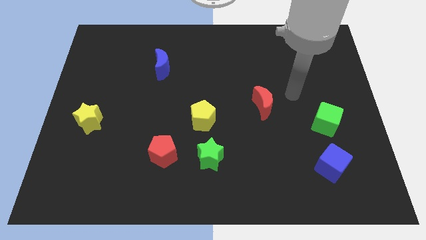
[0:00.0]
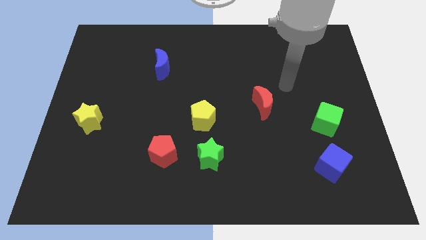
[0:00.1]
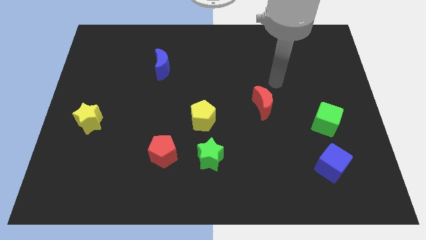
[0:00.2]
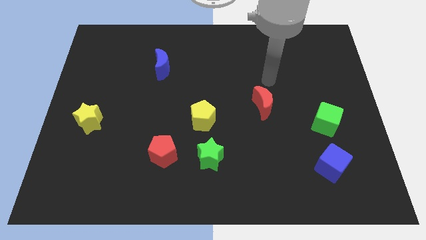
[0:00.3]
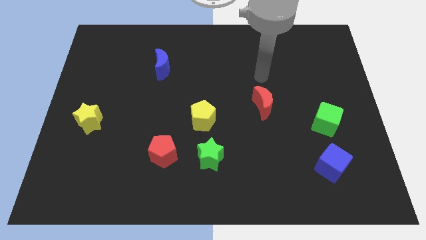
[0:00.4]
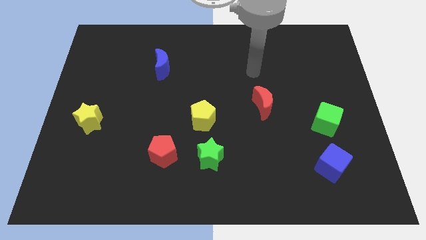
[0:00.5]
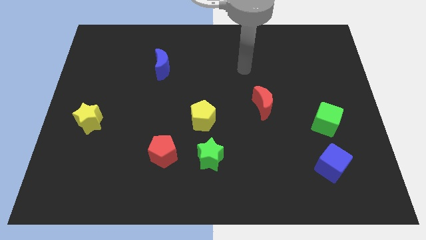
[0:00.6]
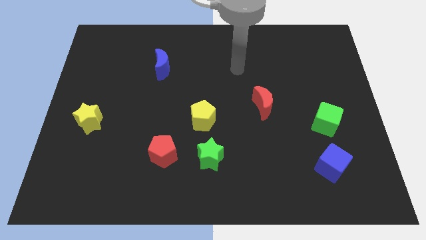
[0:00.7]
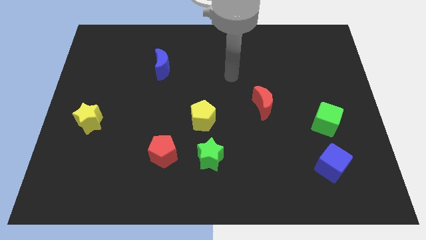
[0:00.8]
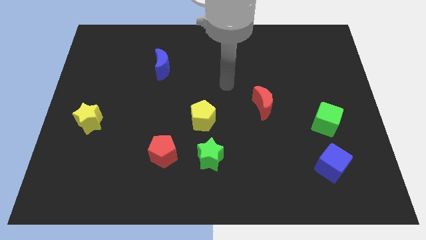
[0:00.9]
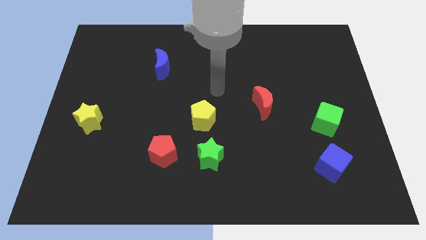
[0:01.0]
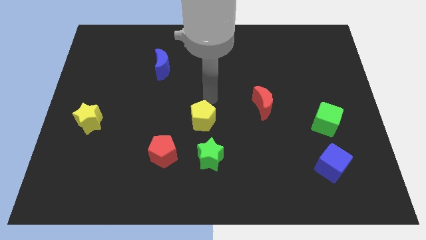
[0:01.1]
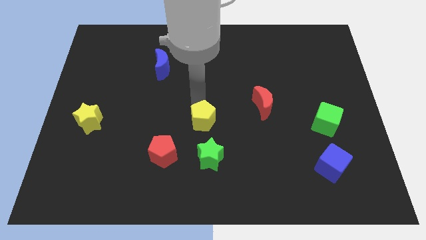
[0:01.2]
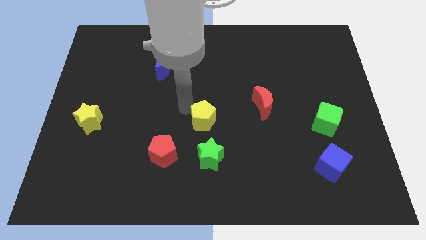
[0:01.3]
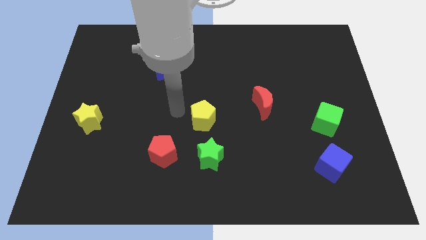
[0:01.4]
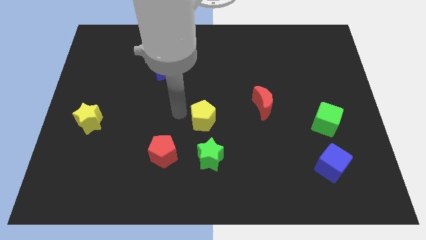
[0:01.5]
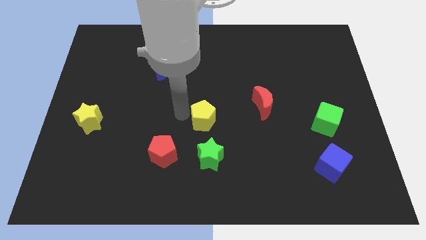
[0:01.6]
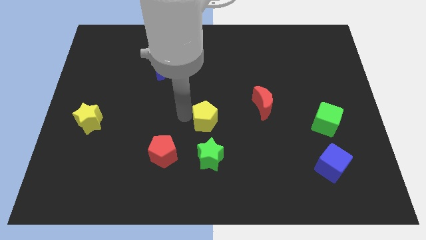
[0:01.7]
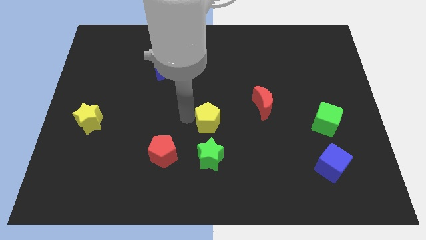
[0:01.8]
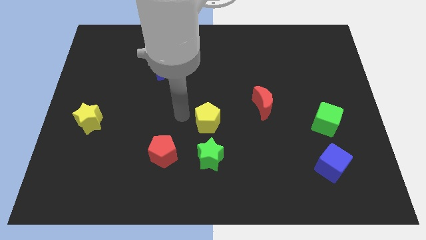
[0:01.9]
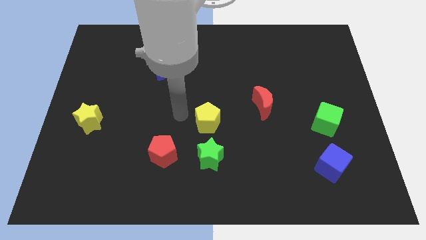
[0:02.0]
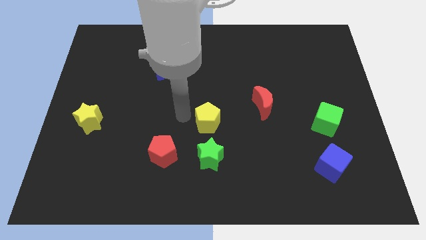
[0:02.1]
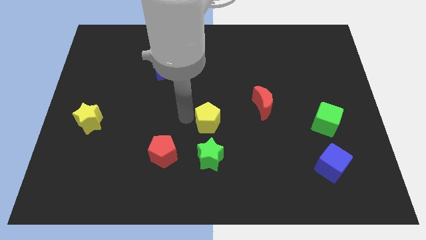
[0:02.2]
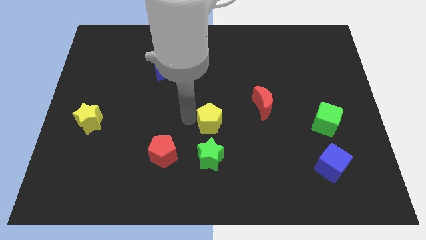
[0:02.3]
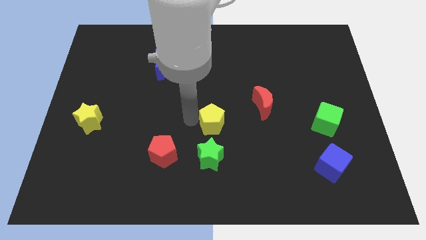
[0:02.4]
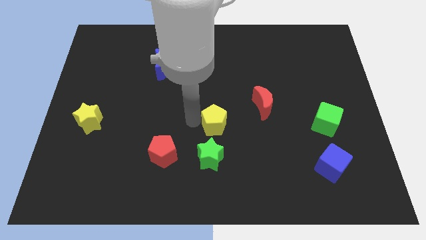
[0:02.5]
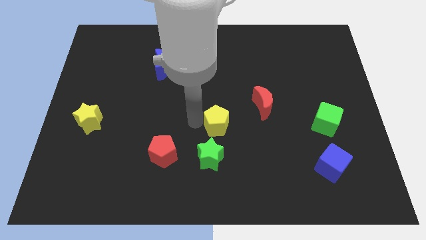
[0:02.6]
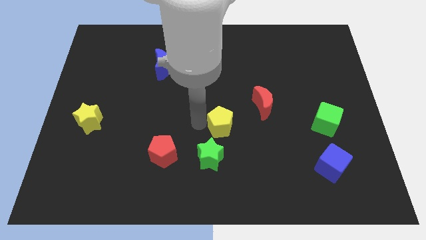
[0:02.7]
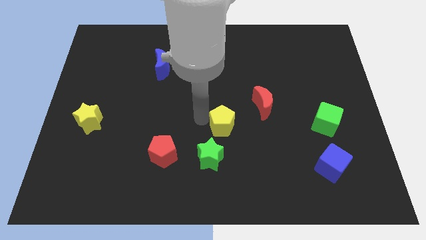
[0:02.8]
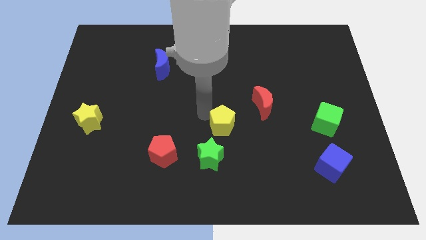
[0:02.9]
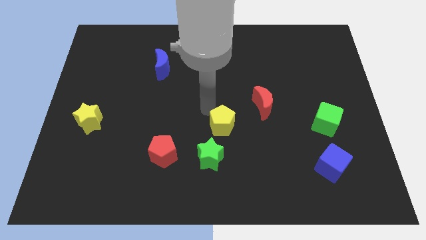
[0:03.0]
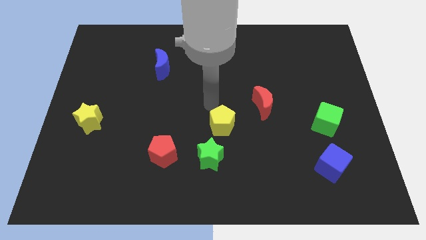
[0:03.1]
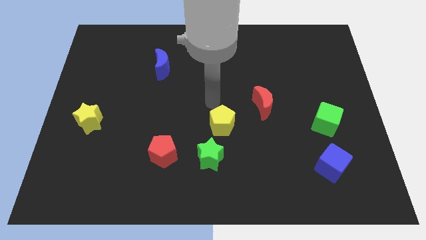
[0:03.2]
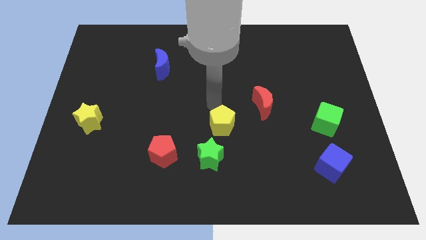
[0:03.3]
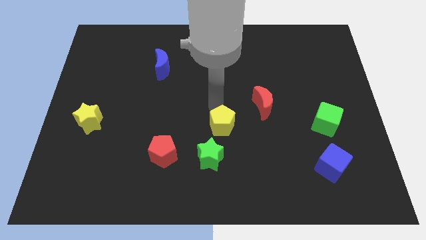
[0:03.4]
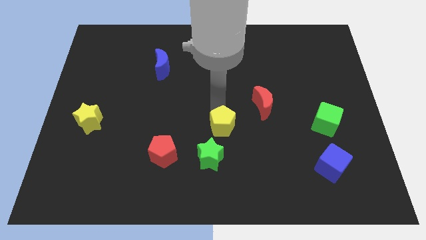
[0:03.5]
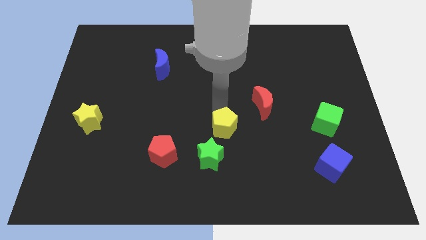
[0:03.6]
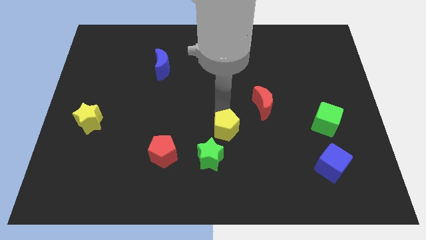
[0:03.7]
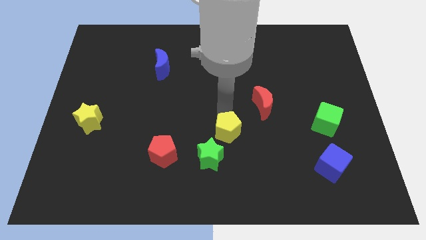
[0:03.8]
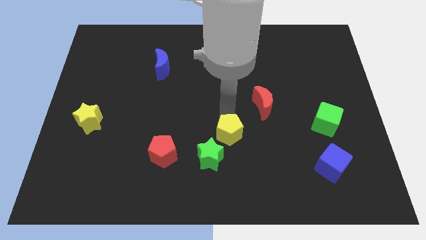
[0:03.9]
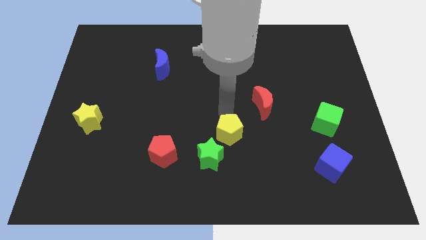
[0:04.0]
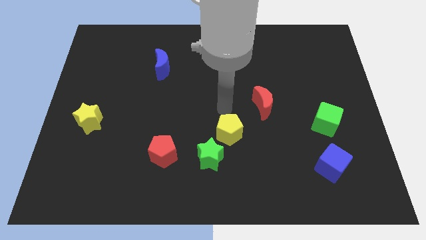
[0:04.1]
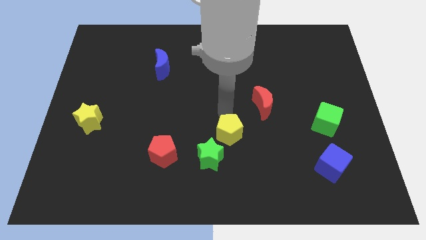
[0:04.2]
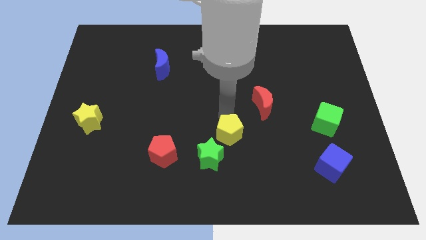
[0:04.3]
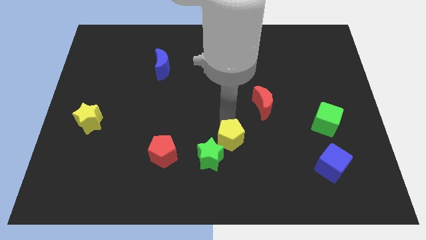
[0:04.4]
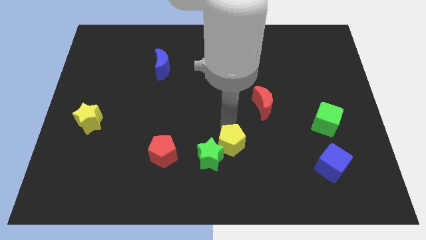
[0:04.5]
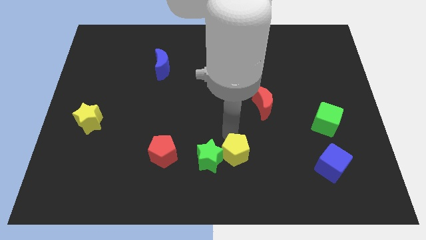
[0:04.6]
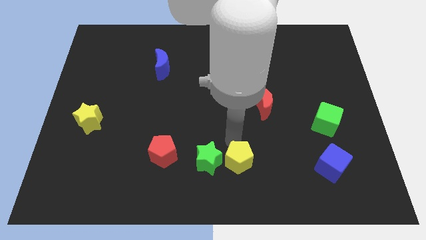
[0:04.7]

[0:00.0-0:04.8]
slide the yellow pentagon to the bottom right of the green star

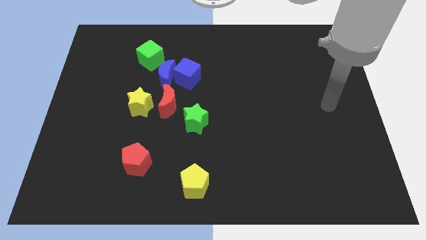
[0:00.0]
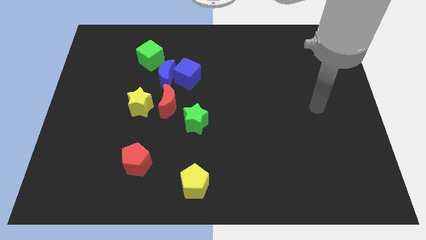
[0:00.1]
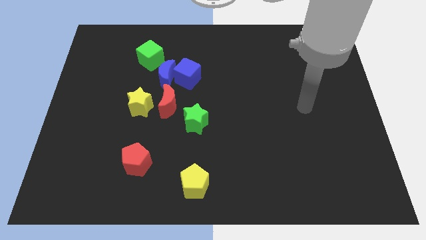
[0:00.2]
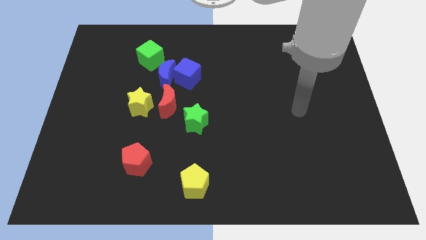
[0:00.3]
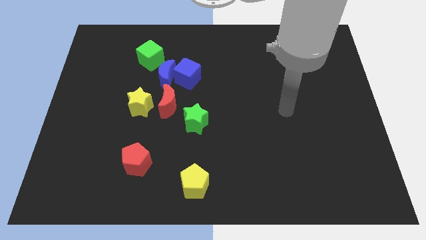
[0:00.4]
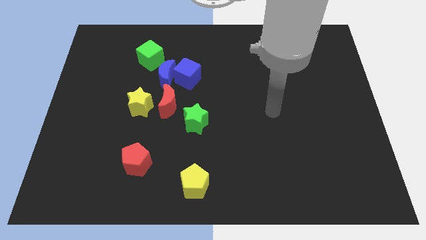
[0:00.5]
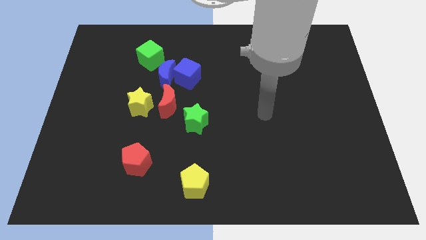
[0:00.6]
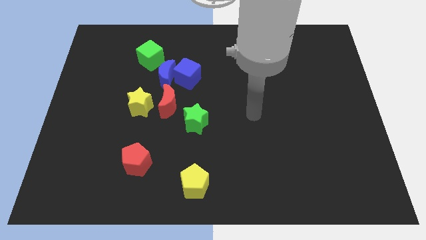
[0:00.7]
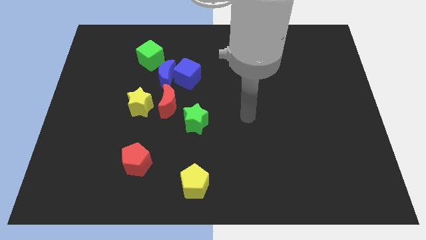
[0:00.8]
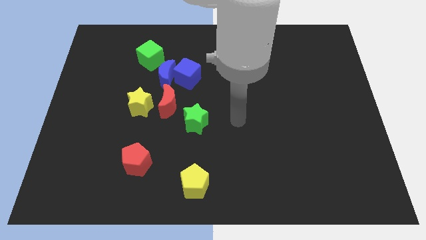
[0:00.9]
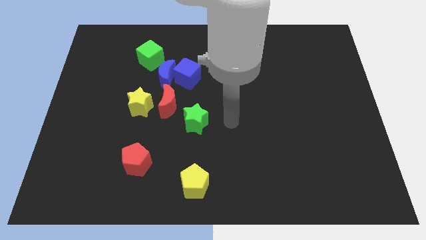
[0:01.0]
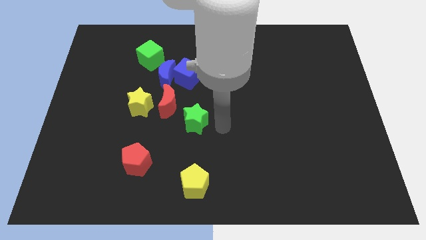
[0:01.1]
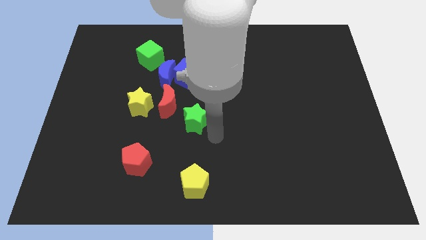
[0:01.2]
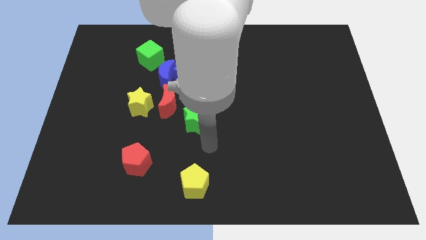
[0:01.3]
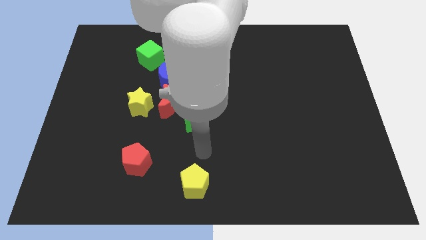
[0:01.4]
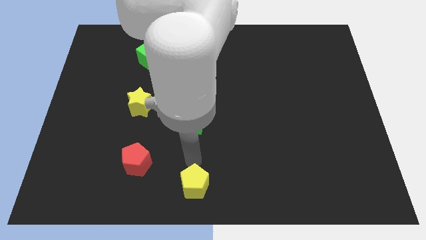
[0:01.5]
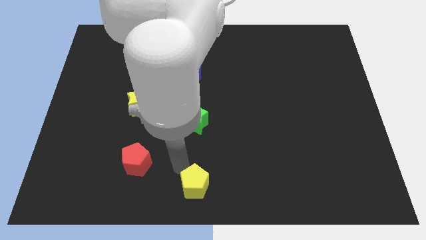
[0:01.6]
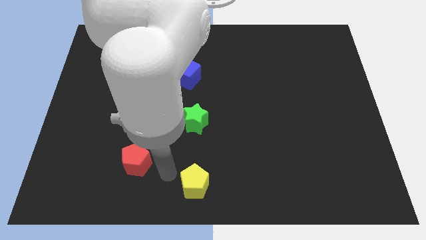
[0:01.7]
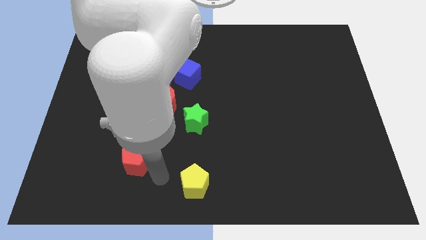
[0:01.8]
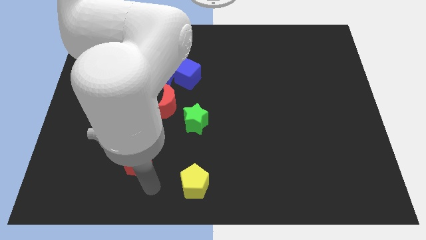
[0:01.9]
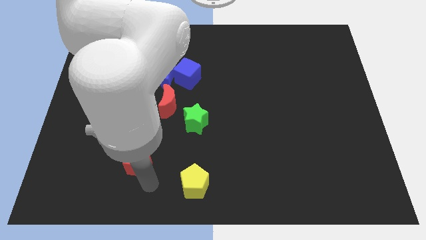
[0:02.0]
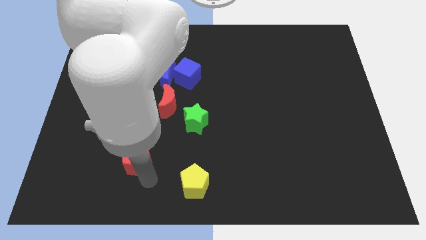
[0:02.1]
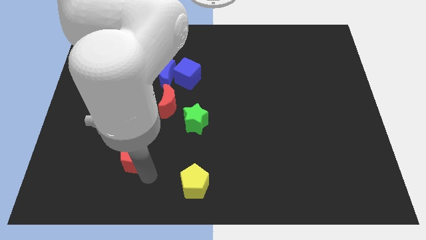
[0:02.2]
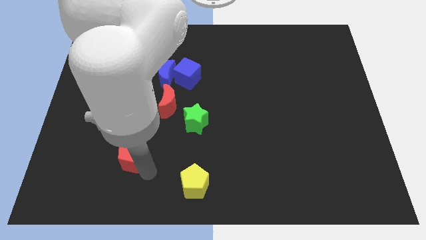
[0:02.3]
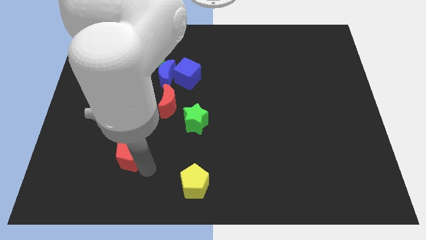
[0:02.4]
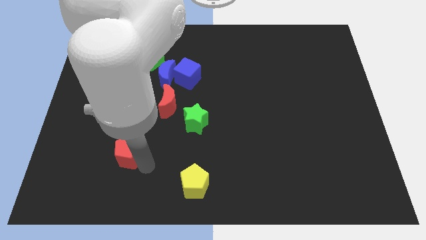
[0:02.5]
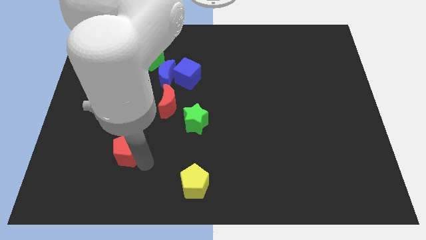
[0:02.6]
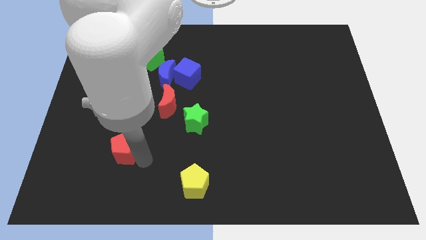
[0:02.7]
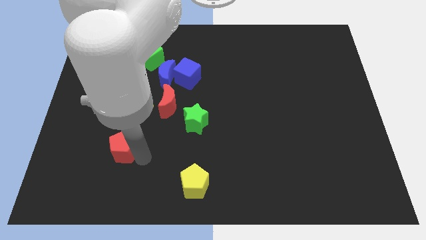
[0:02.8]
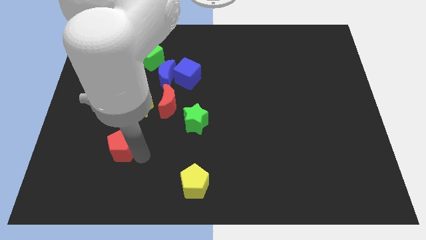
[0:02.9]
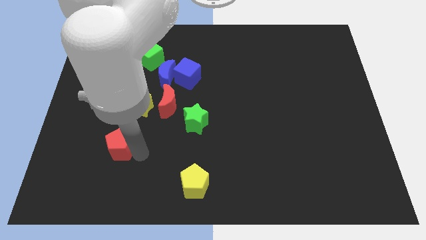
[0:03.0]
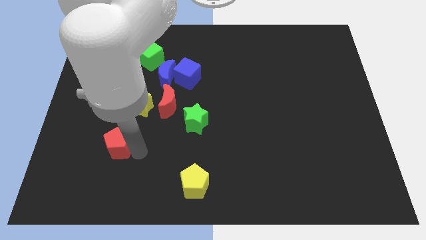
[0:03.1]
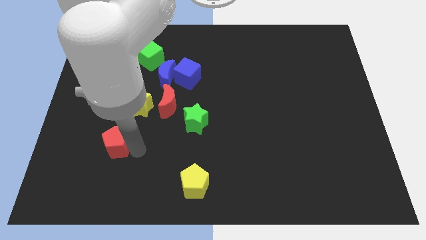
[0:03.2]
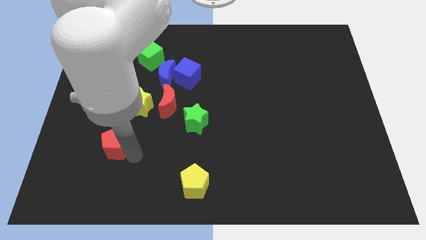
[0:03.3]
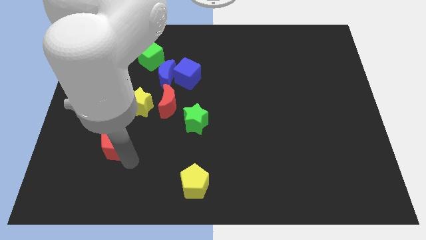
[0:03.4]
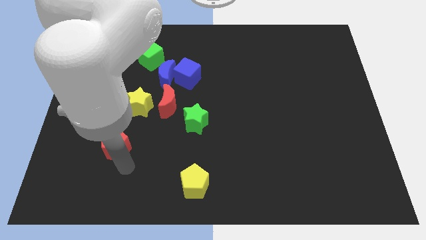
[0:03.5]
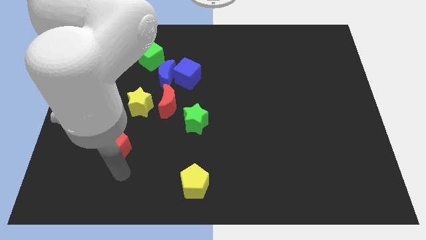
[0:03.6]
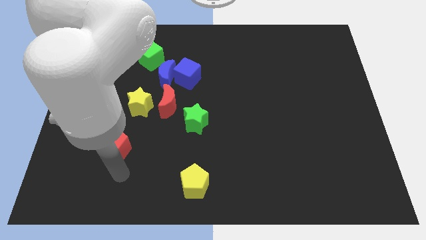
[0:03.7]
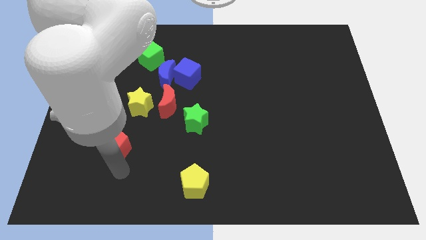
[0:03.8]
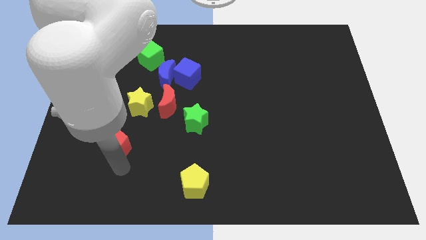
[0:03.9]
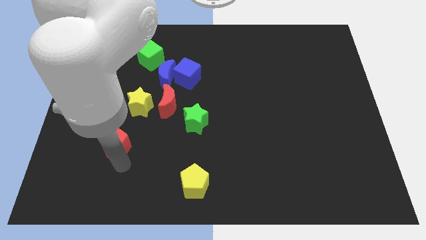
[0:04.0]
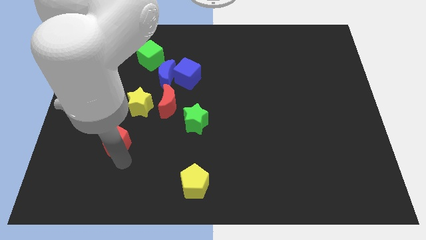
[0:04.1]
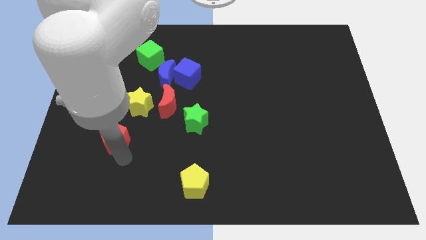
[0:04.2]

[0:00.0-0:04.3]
slide the red pentagon diagonally down and to the left of the yellow star
